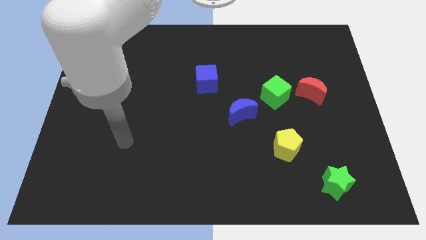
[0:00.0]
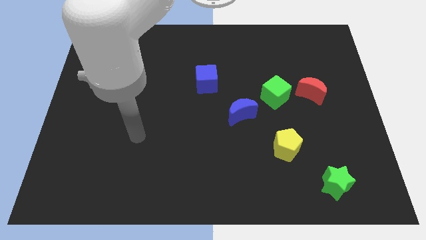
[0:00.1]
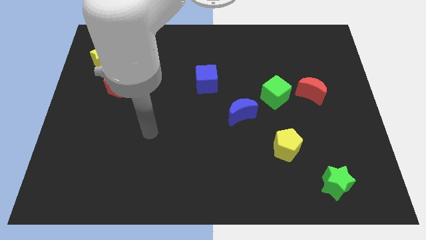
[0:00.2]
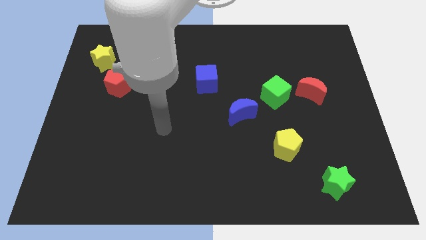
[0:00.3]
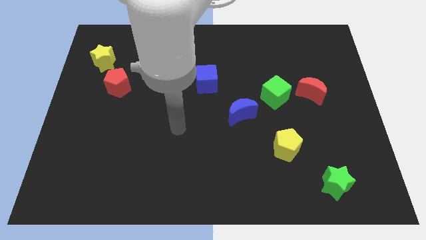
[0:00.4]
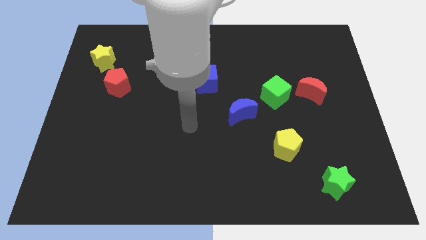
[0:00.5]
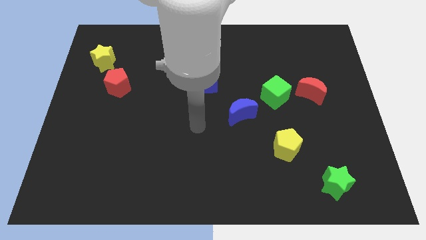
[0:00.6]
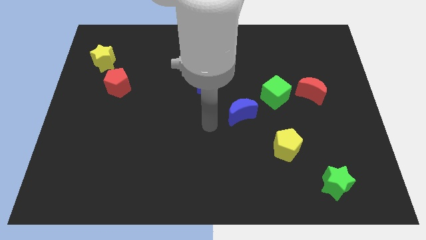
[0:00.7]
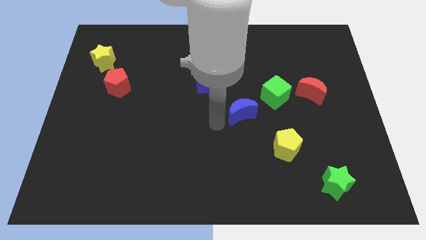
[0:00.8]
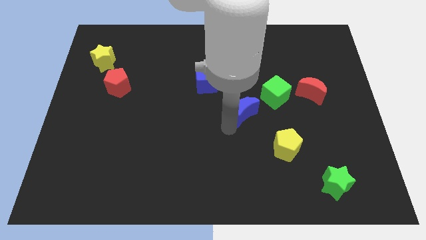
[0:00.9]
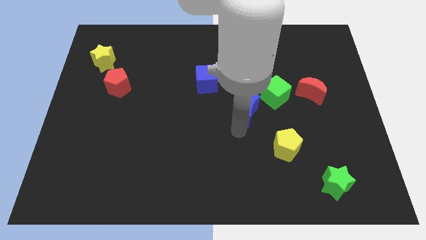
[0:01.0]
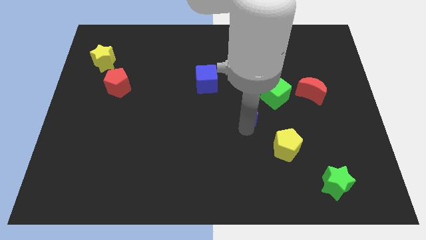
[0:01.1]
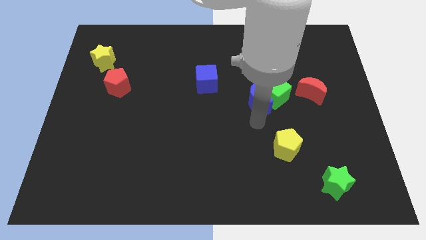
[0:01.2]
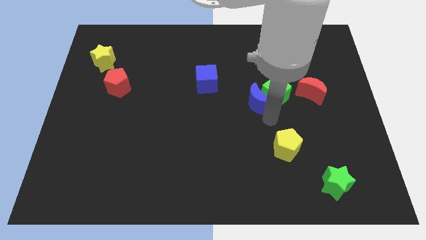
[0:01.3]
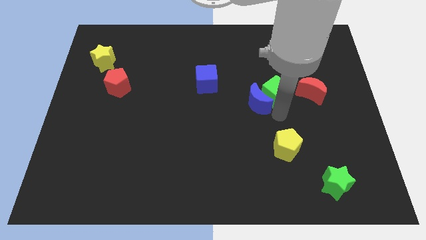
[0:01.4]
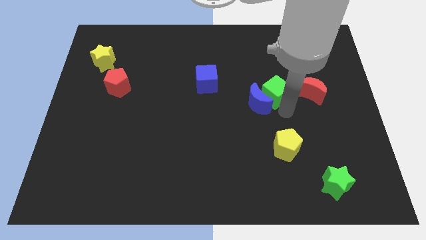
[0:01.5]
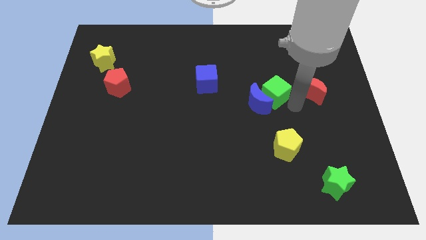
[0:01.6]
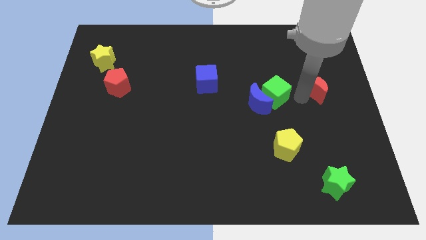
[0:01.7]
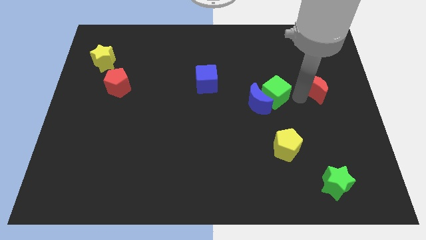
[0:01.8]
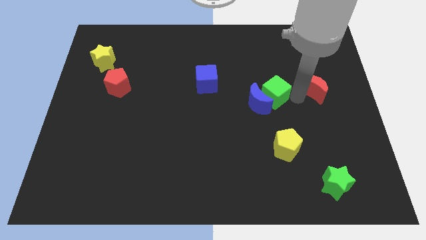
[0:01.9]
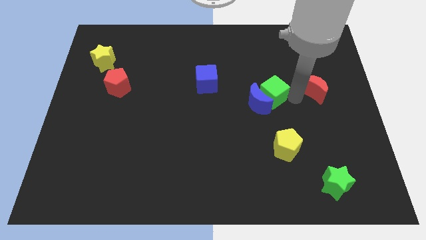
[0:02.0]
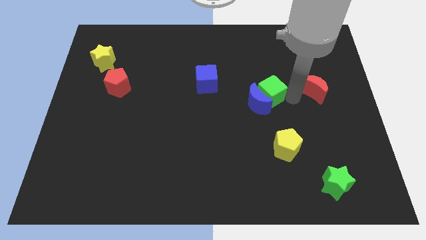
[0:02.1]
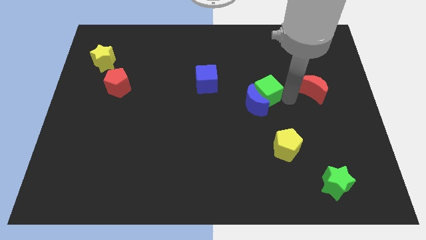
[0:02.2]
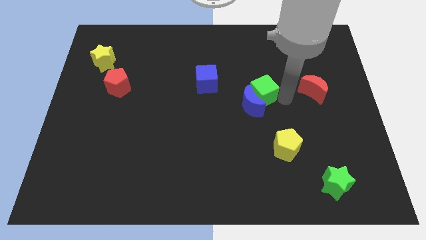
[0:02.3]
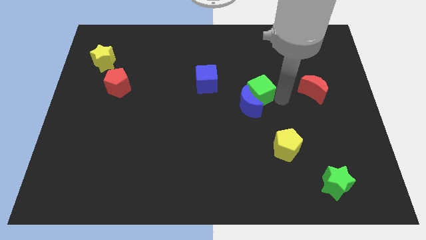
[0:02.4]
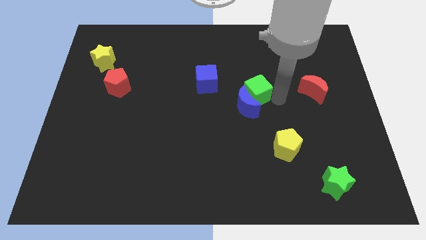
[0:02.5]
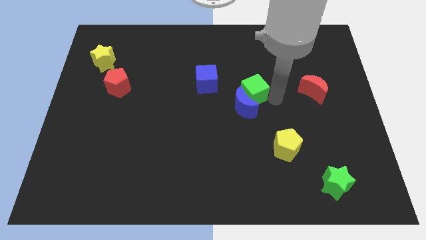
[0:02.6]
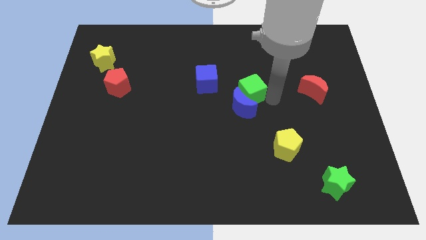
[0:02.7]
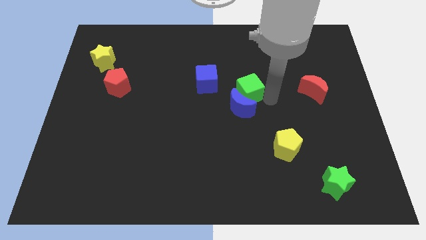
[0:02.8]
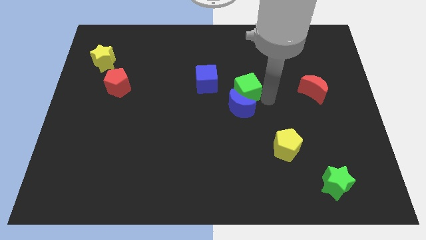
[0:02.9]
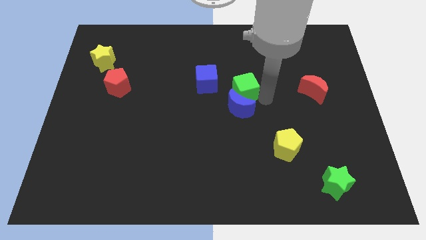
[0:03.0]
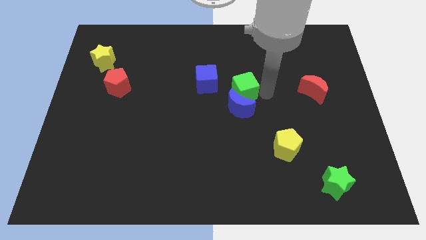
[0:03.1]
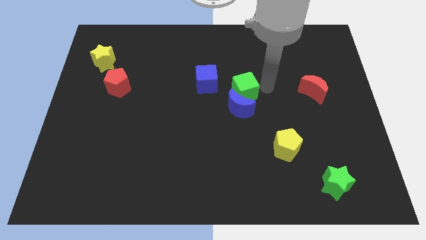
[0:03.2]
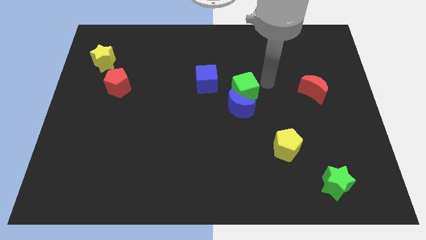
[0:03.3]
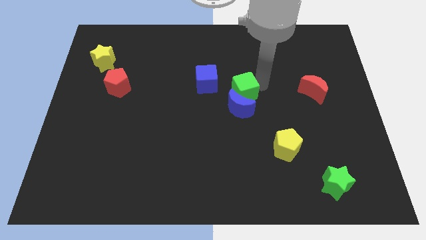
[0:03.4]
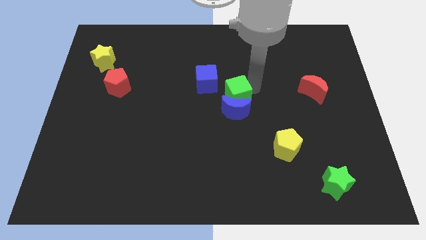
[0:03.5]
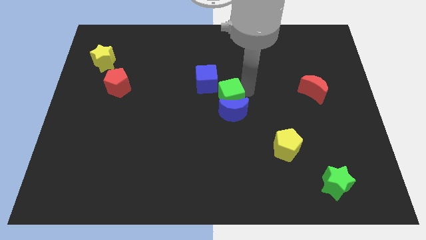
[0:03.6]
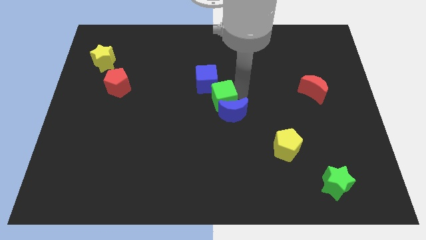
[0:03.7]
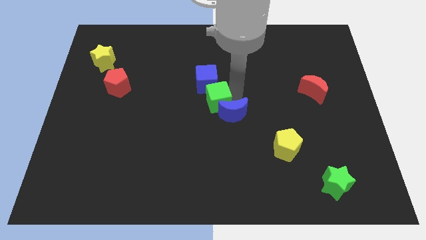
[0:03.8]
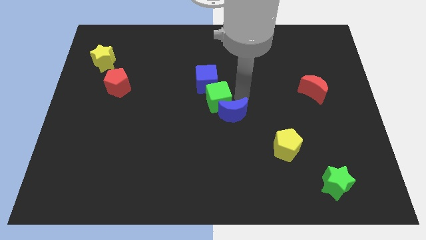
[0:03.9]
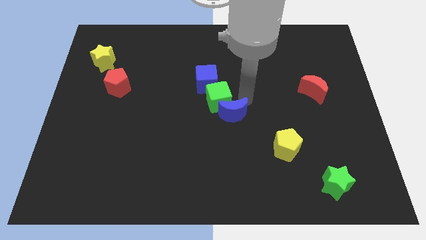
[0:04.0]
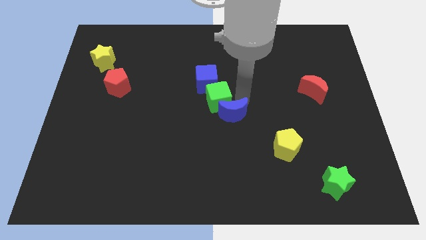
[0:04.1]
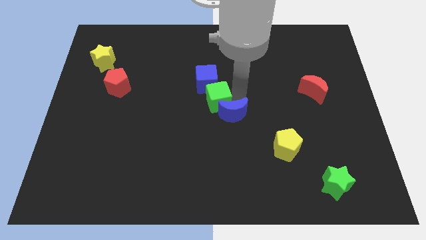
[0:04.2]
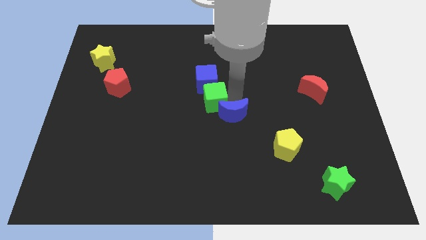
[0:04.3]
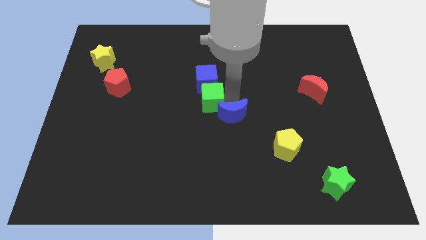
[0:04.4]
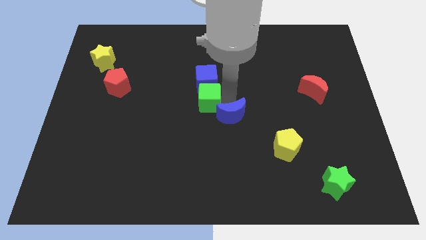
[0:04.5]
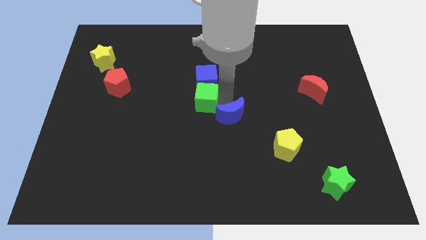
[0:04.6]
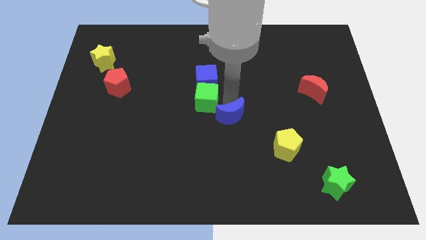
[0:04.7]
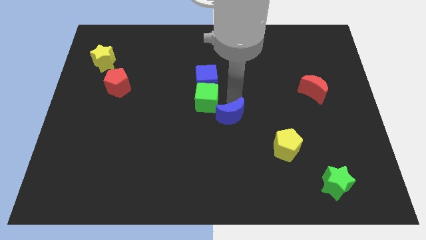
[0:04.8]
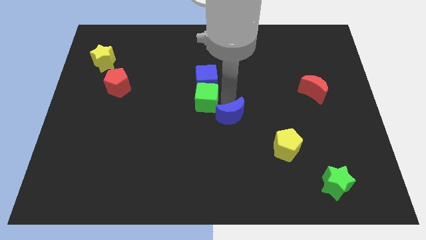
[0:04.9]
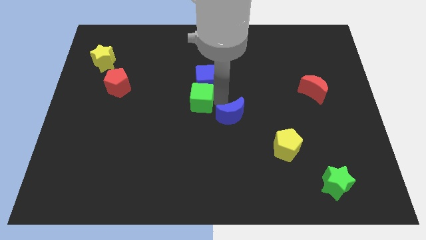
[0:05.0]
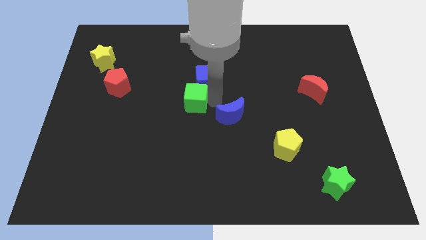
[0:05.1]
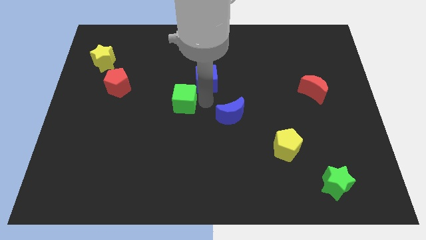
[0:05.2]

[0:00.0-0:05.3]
push the green cube to the left

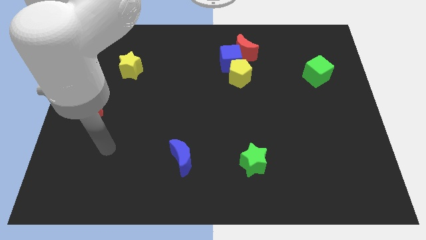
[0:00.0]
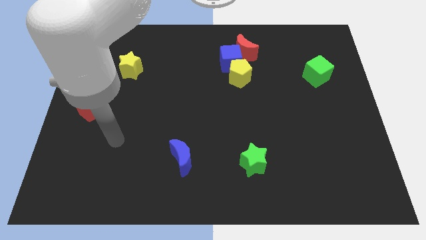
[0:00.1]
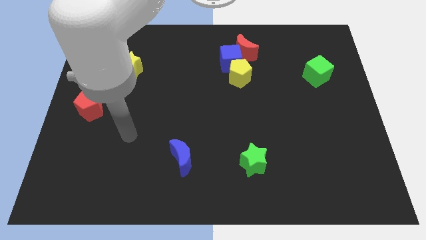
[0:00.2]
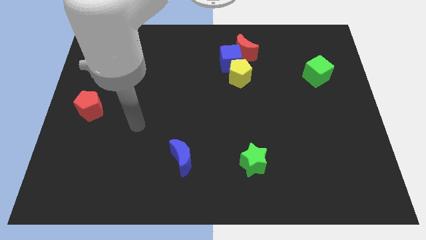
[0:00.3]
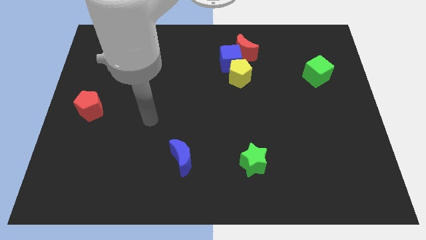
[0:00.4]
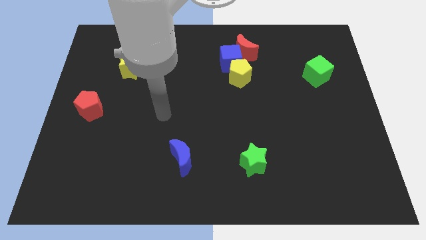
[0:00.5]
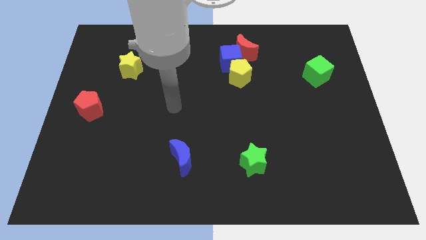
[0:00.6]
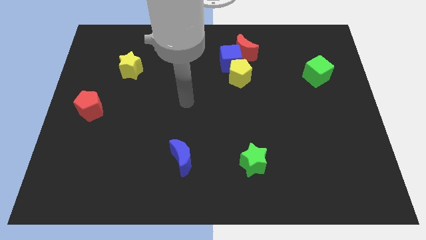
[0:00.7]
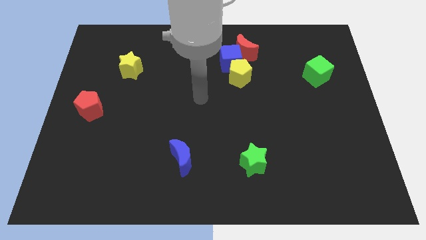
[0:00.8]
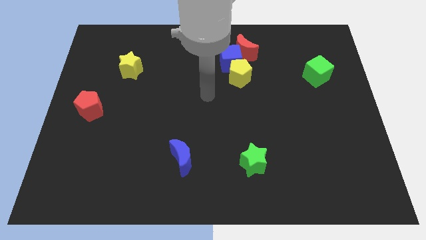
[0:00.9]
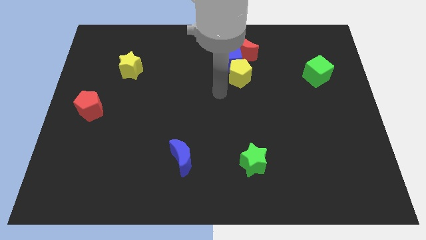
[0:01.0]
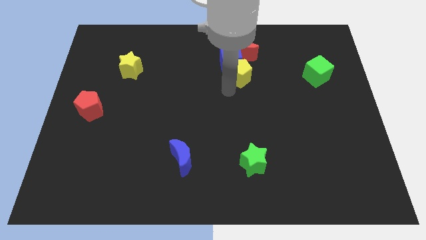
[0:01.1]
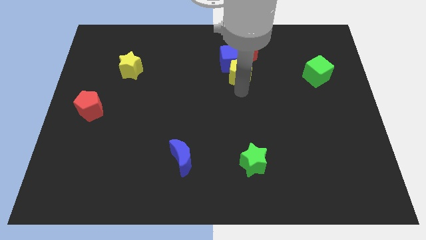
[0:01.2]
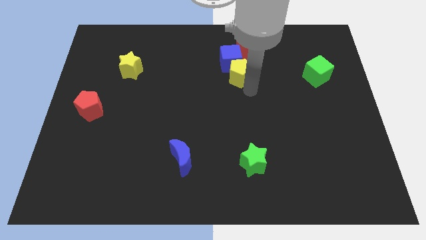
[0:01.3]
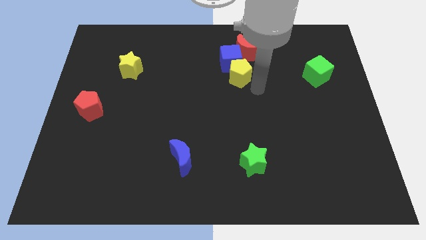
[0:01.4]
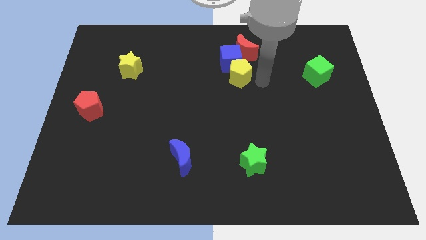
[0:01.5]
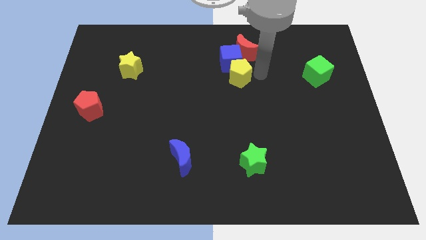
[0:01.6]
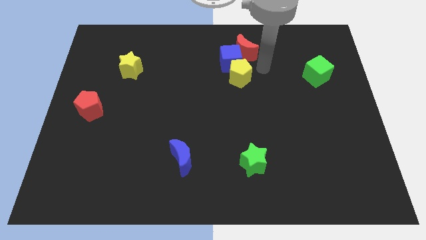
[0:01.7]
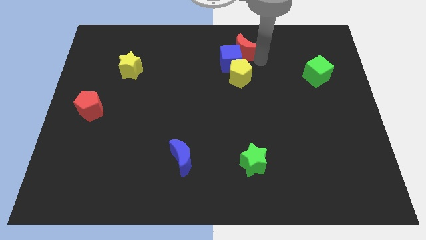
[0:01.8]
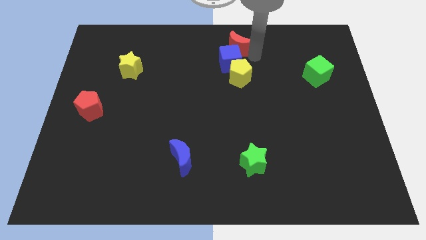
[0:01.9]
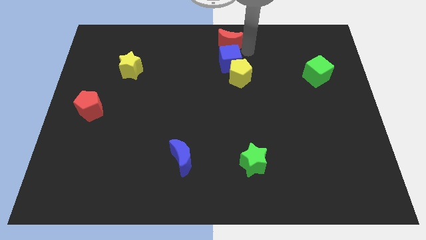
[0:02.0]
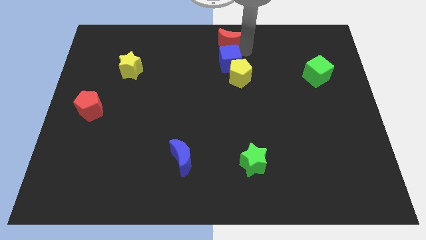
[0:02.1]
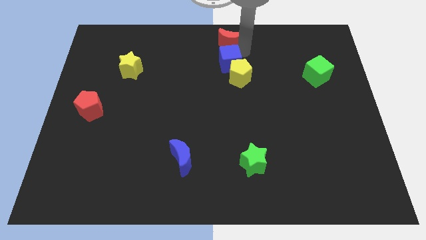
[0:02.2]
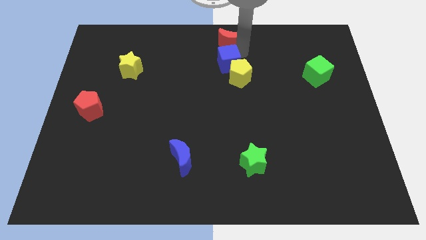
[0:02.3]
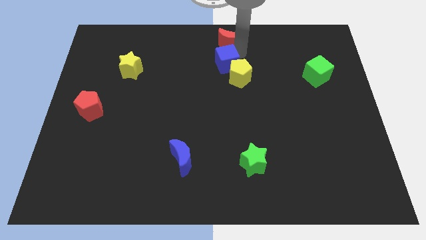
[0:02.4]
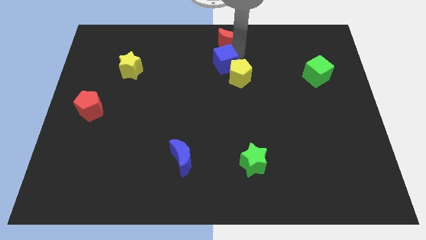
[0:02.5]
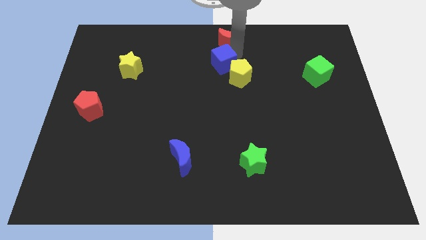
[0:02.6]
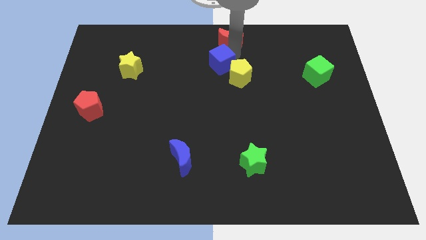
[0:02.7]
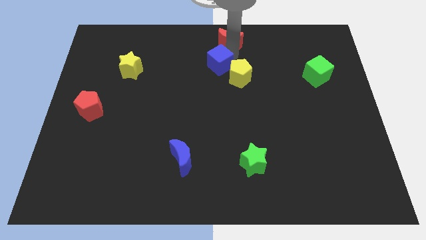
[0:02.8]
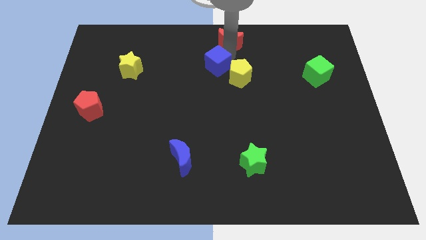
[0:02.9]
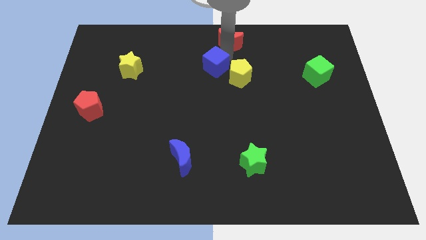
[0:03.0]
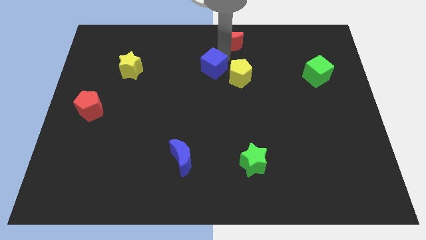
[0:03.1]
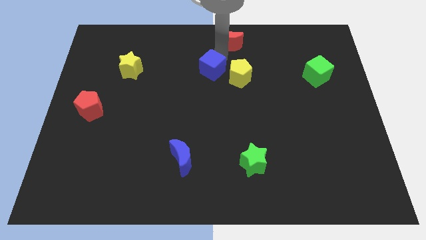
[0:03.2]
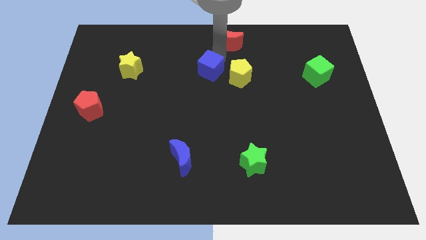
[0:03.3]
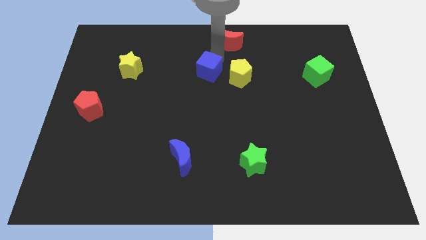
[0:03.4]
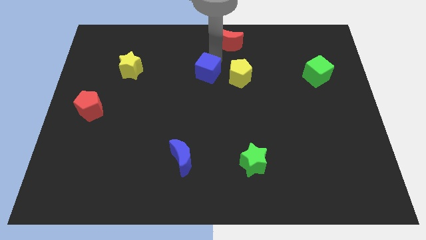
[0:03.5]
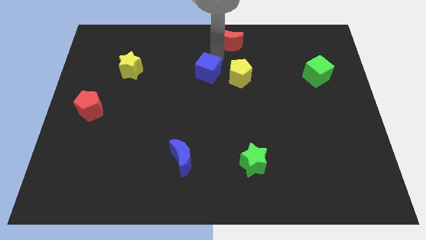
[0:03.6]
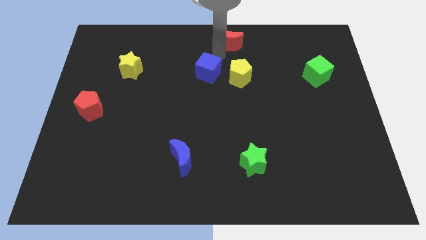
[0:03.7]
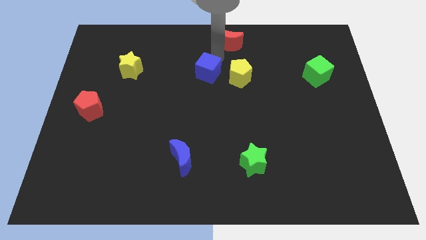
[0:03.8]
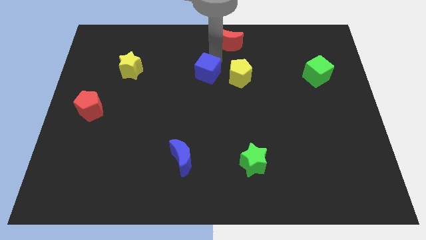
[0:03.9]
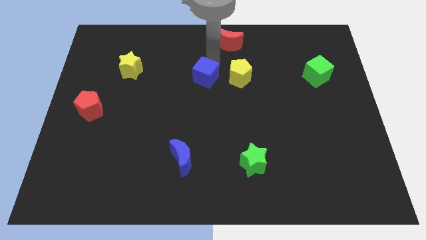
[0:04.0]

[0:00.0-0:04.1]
slide the blue cube diagonally down and to the left a little bit
